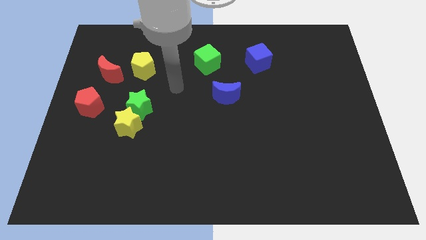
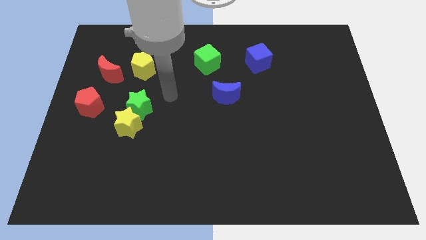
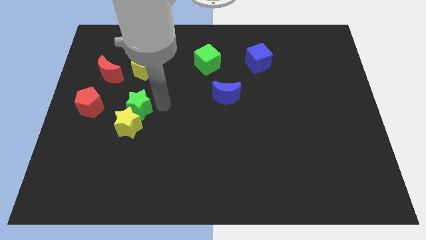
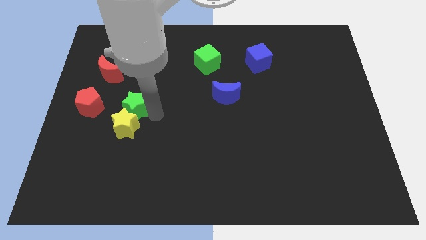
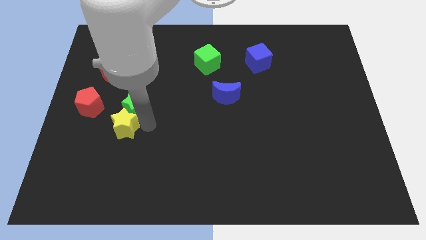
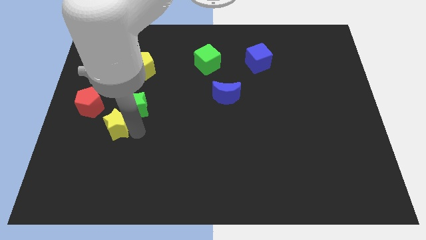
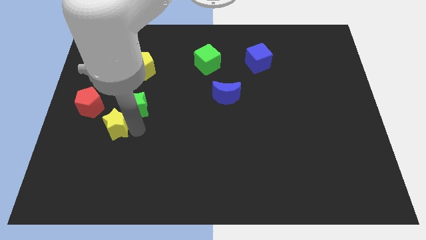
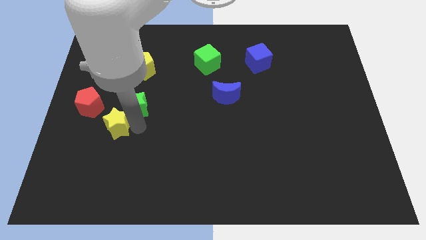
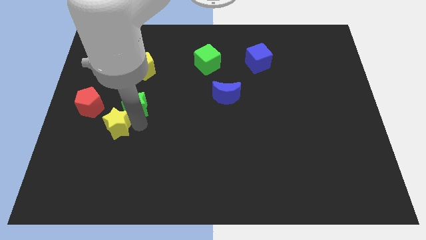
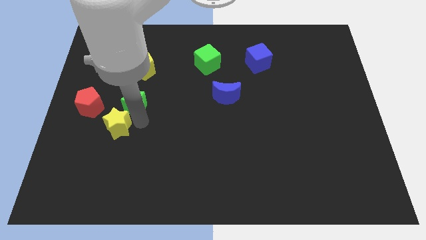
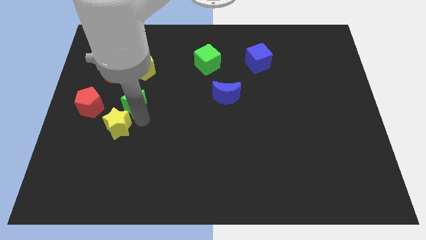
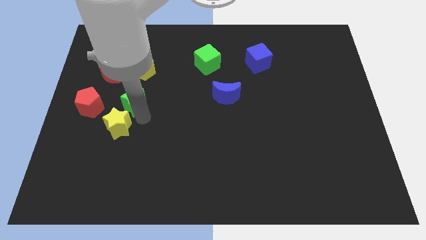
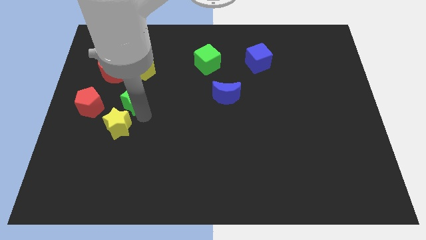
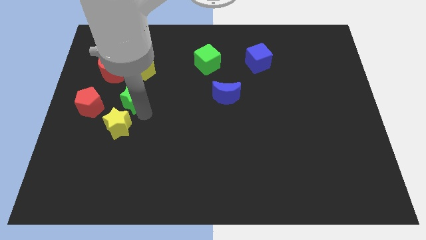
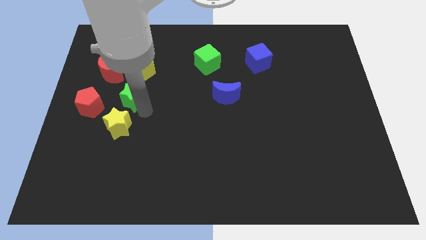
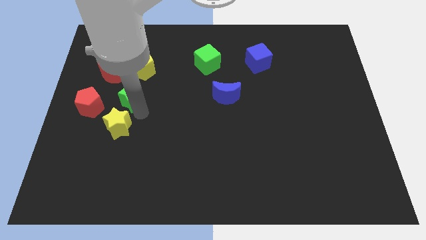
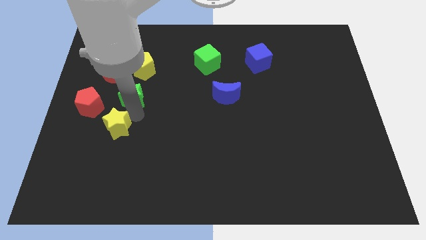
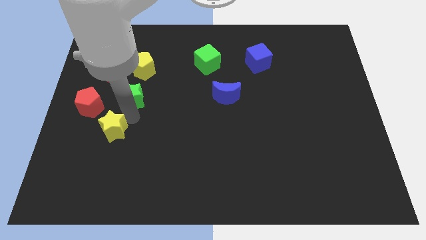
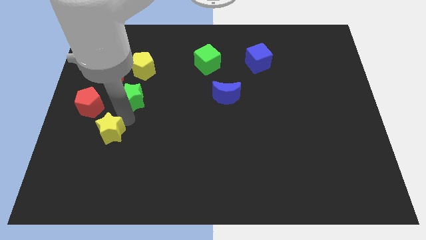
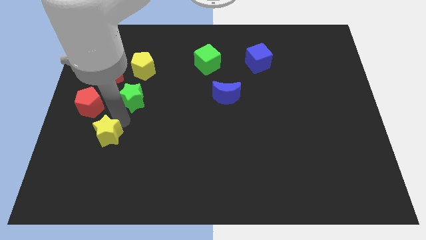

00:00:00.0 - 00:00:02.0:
pull the green star apart from the yellow star

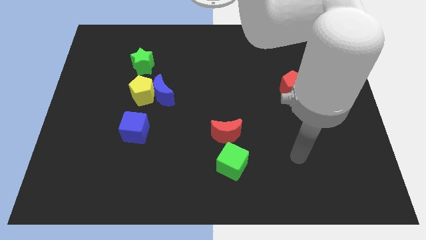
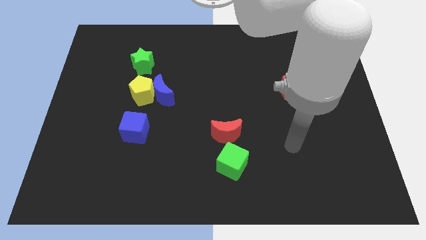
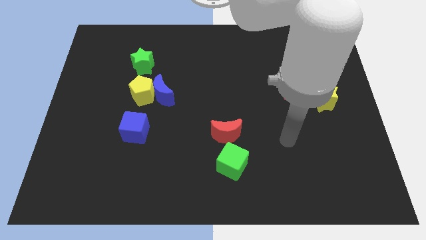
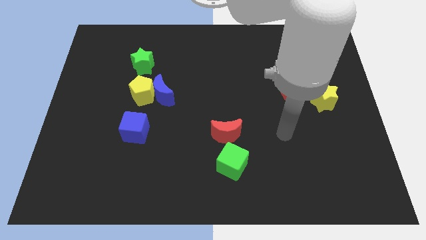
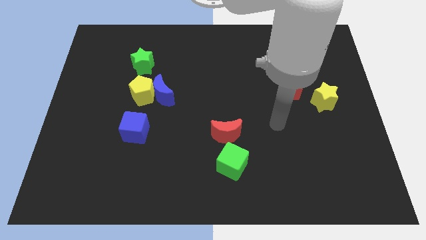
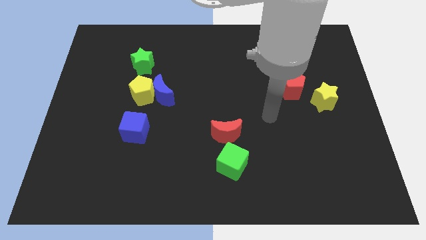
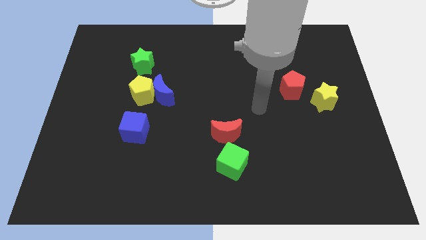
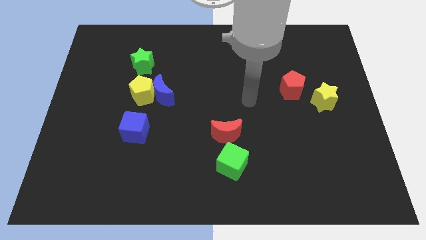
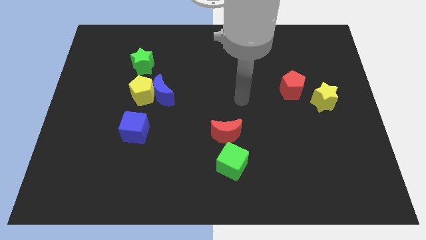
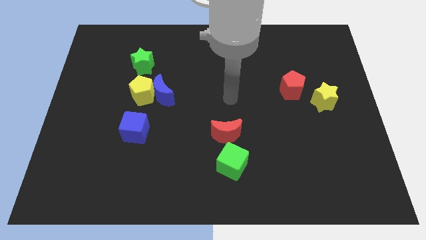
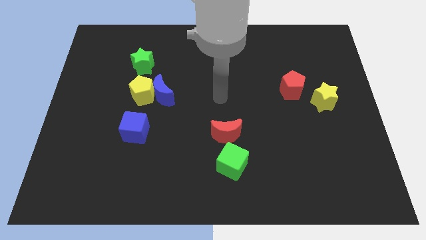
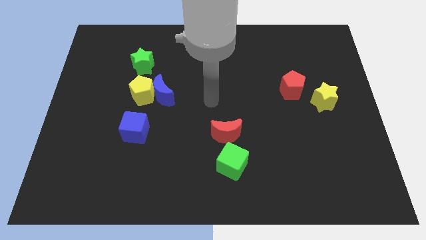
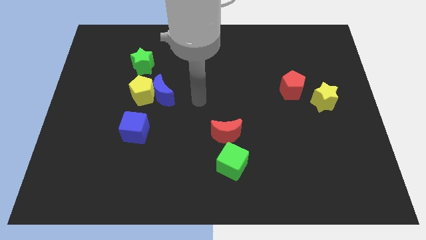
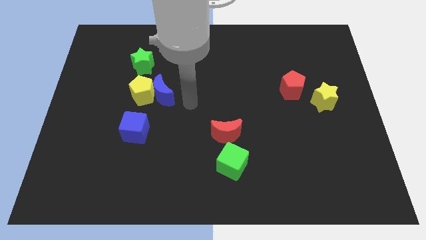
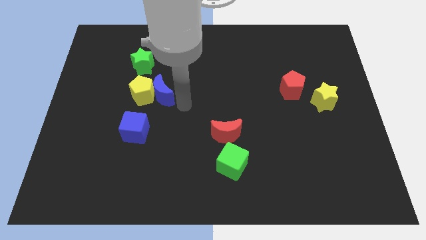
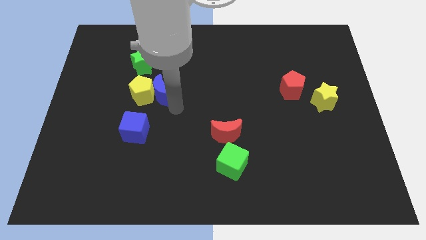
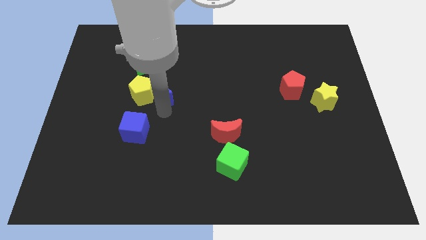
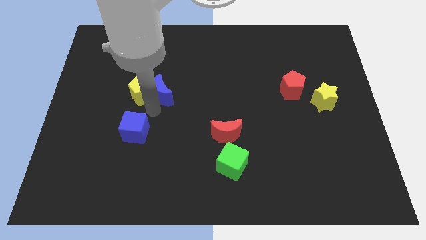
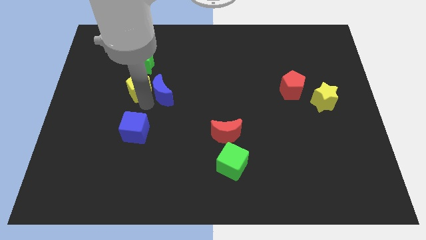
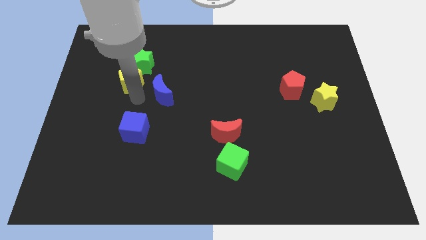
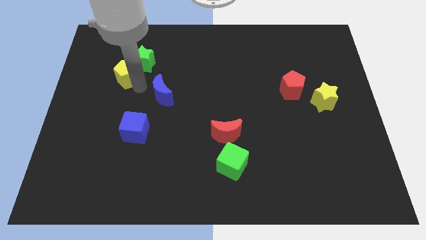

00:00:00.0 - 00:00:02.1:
separate the blue moon from the yellow pentagon

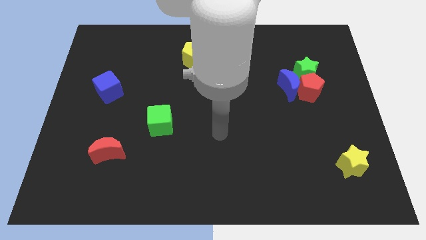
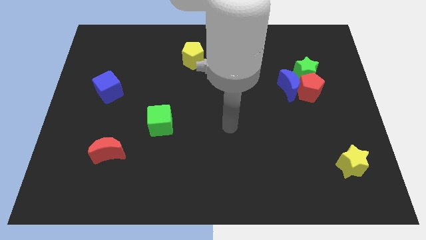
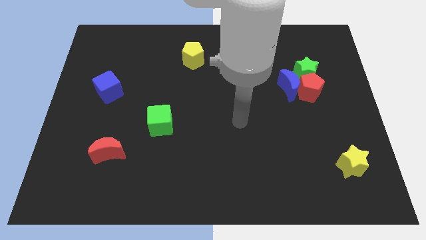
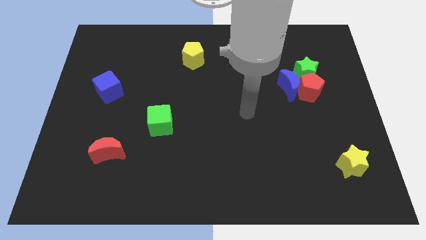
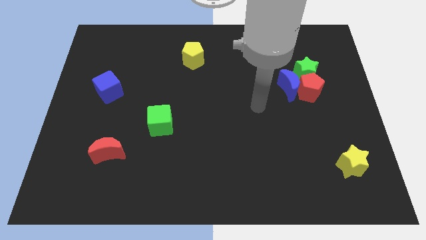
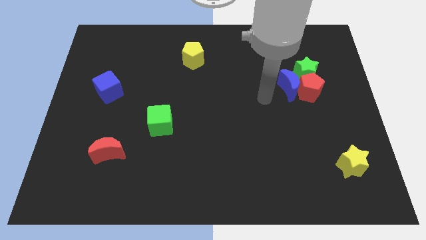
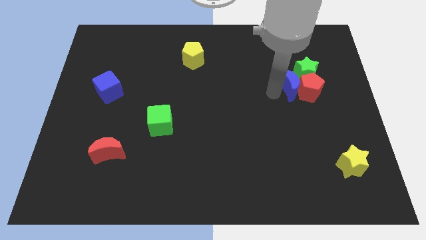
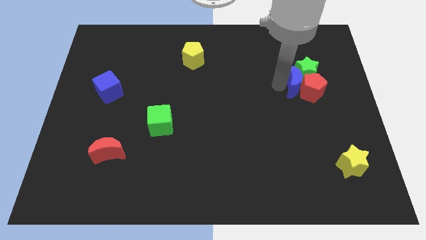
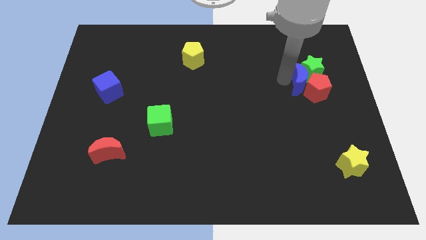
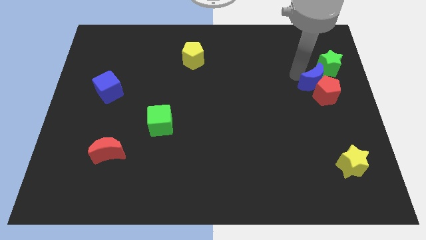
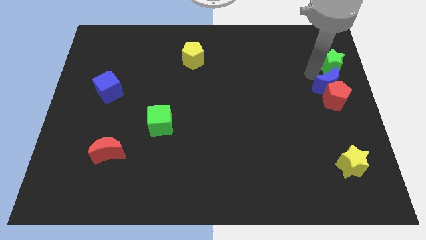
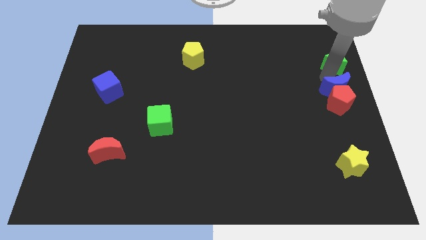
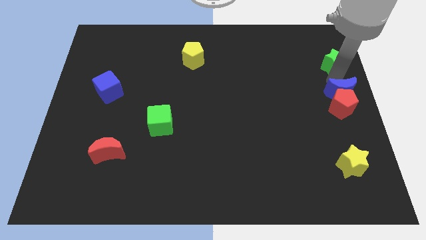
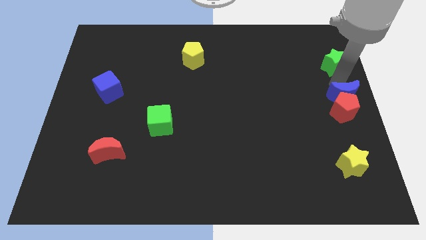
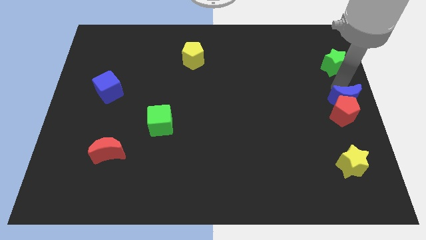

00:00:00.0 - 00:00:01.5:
move the red pentagon away from the blue moon and green star

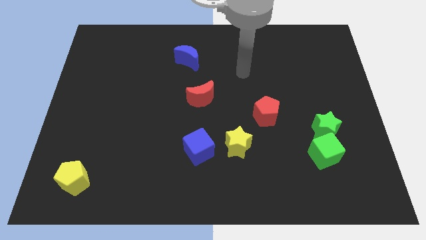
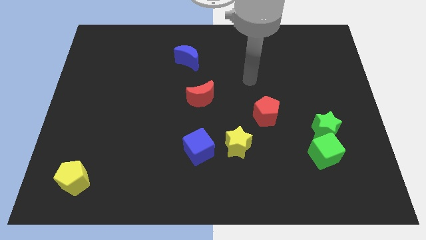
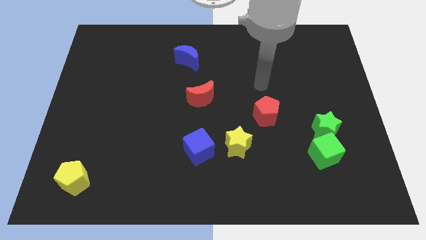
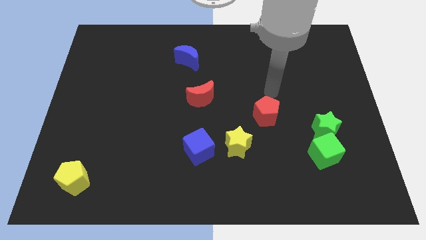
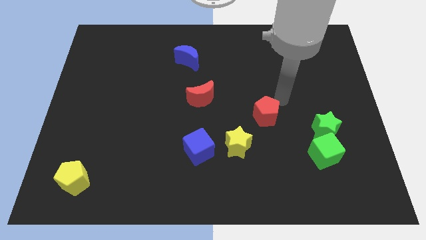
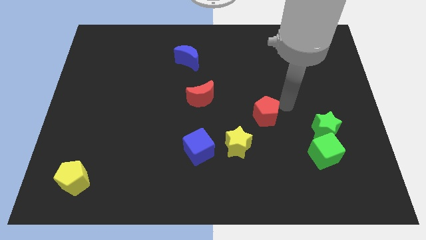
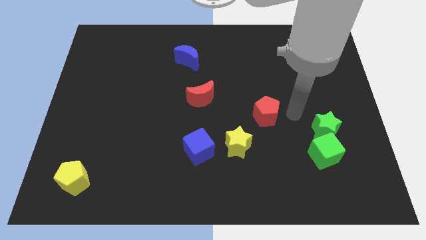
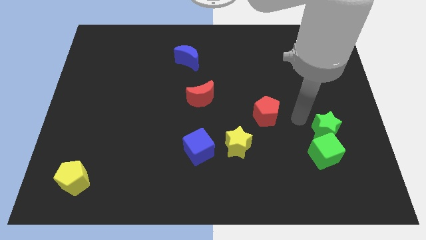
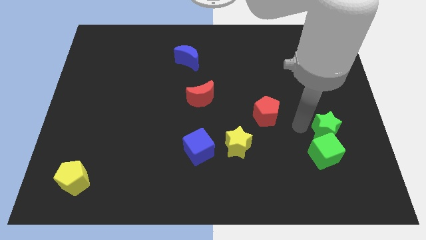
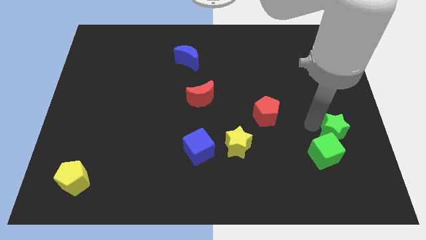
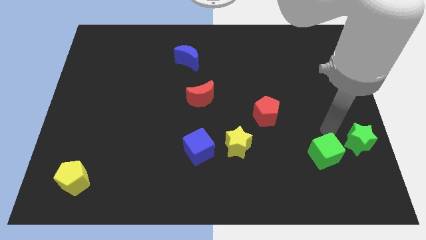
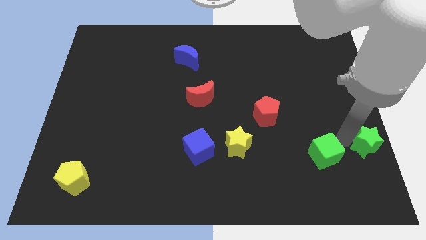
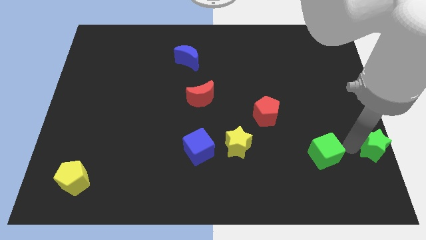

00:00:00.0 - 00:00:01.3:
move the green cube away from the green star

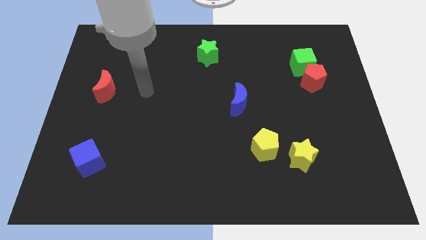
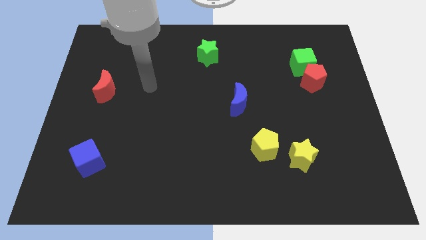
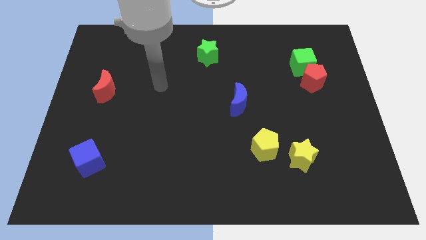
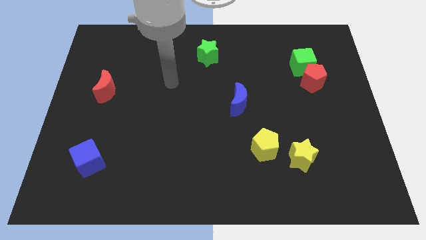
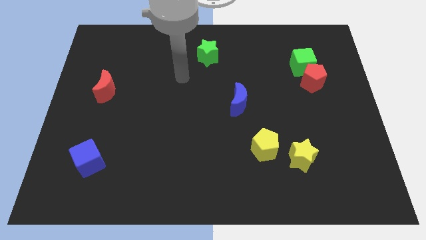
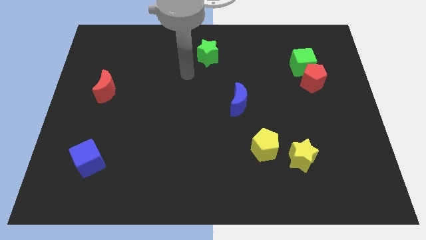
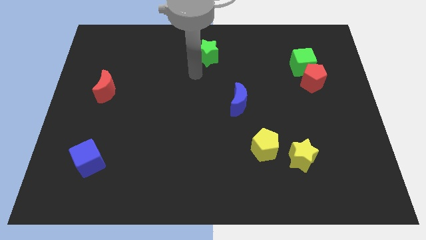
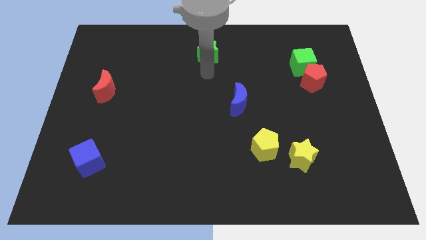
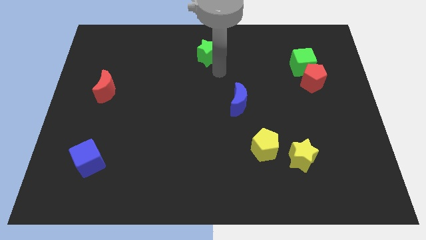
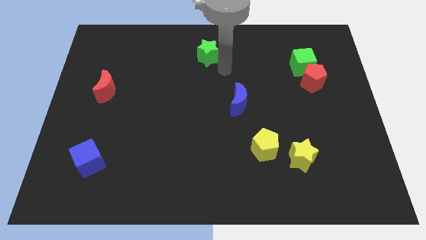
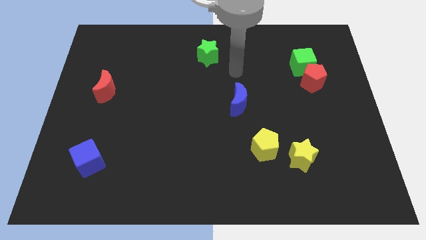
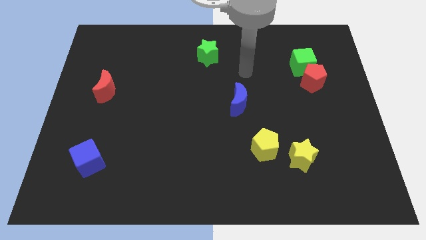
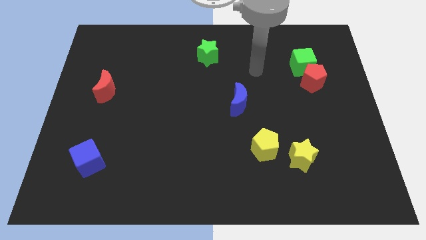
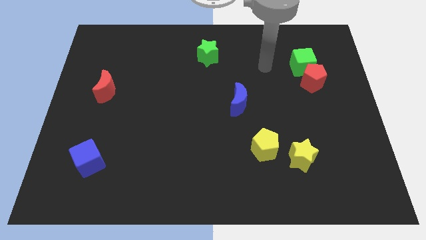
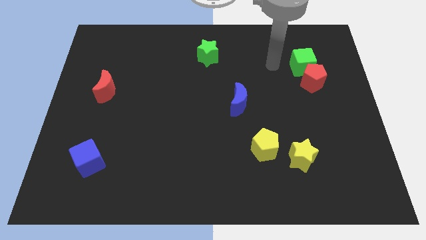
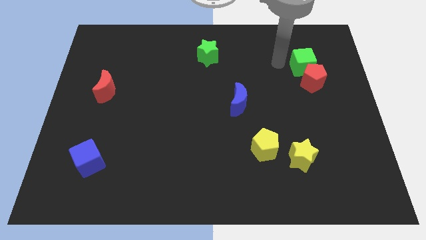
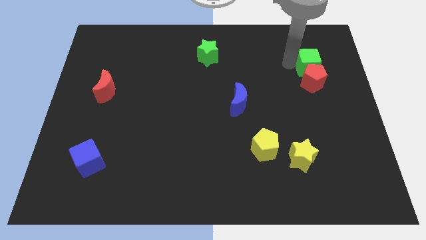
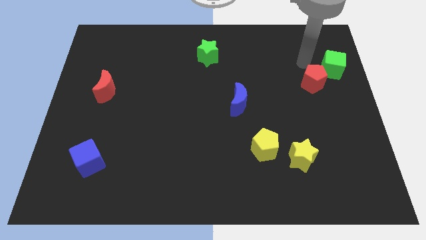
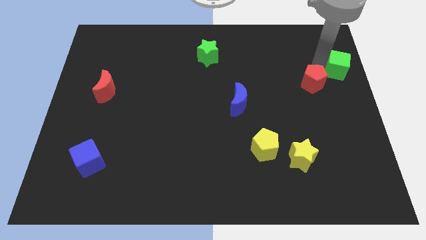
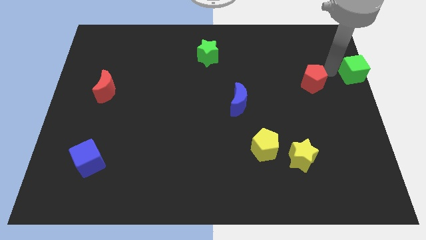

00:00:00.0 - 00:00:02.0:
separate the red pentagon from the green cube

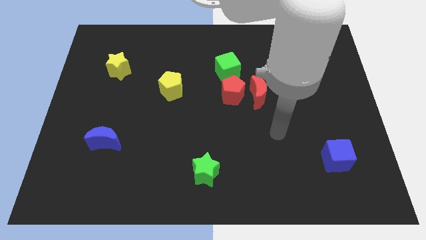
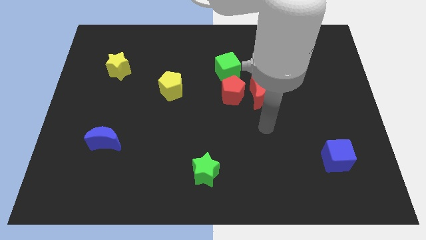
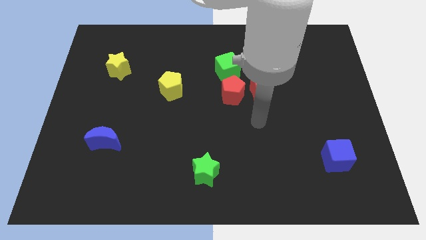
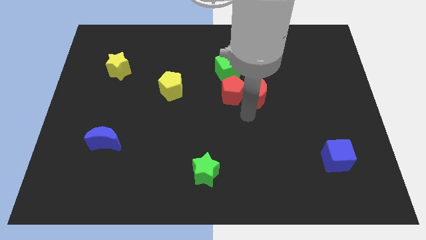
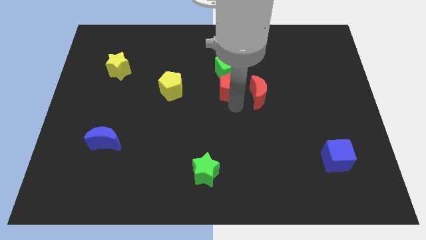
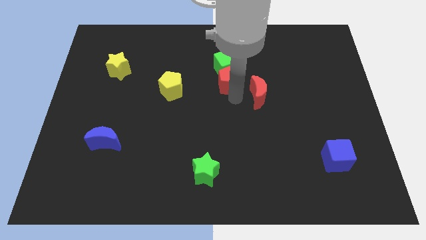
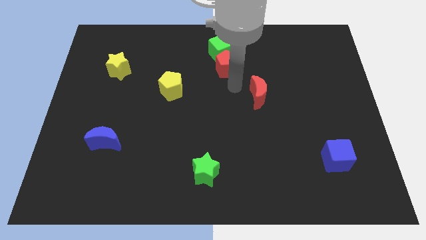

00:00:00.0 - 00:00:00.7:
move the red moon away from the red pentagon
